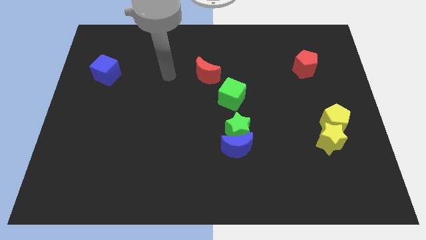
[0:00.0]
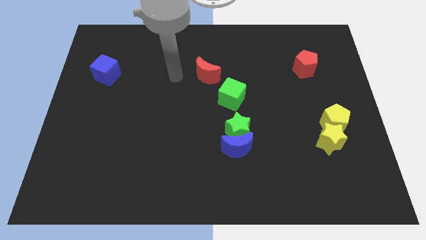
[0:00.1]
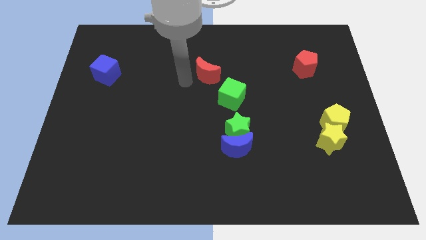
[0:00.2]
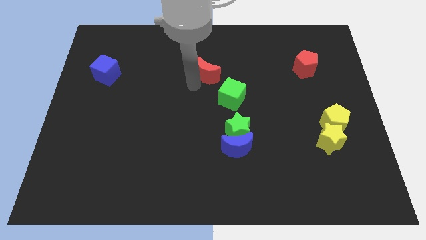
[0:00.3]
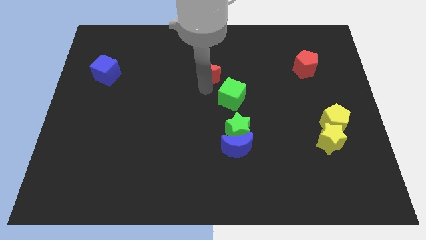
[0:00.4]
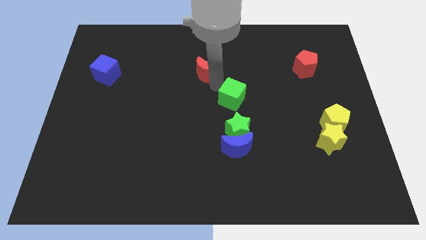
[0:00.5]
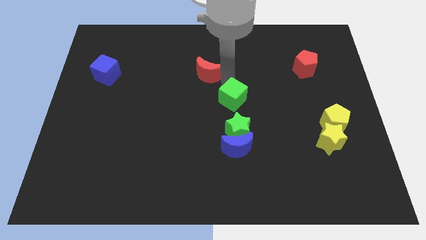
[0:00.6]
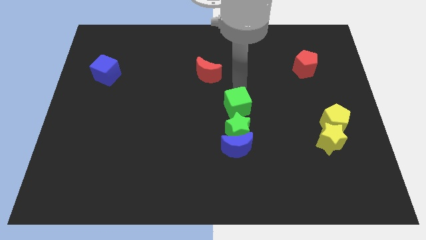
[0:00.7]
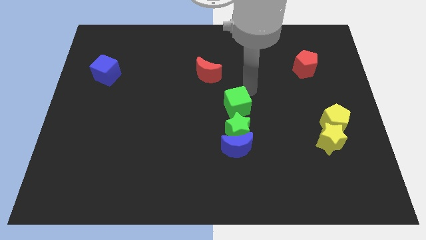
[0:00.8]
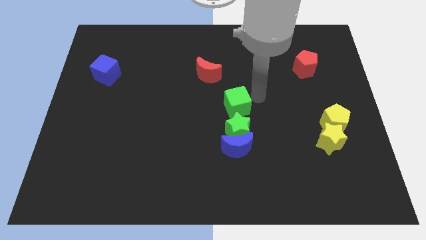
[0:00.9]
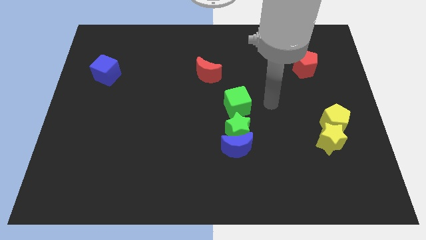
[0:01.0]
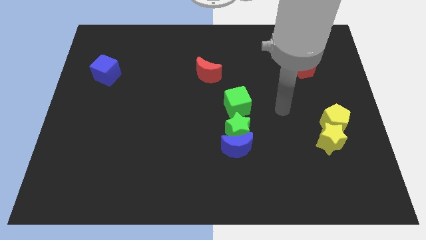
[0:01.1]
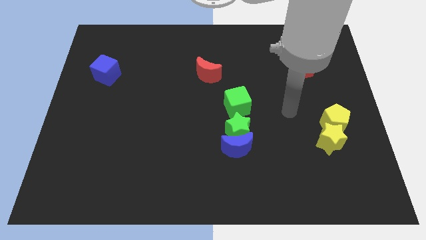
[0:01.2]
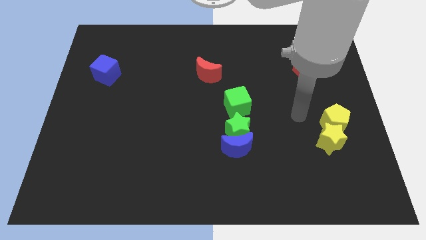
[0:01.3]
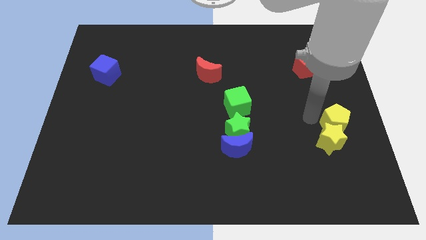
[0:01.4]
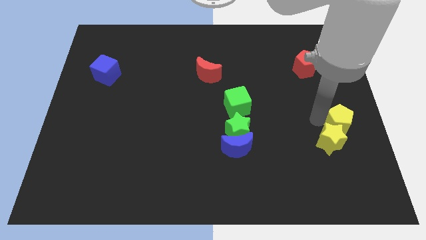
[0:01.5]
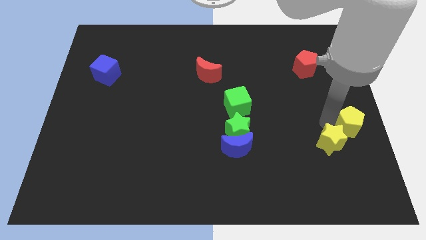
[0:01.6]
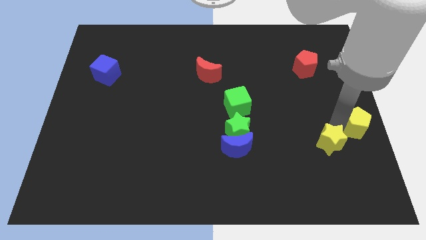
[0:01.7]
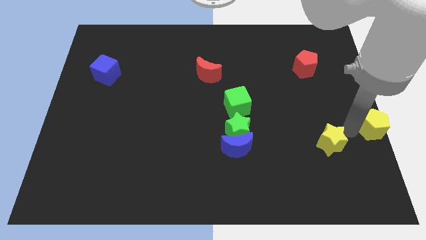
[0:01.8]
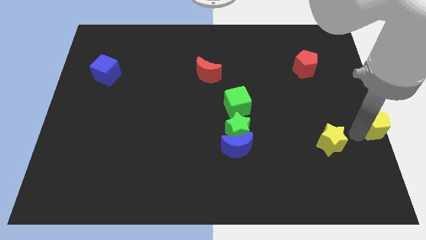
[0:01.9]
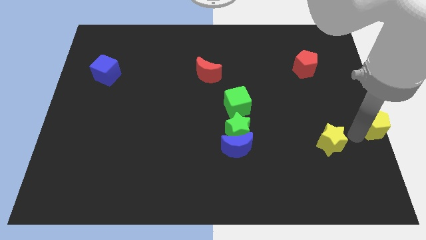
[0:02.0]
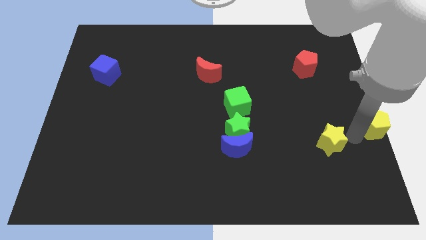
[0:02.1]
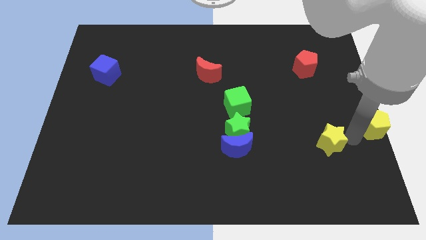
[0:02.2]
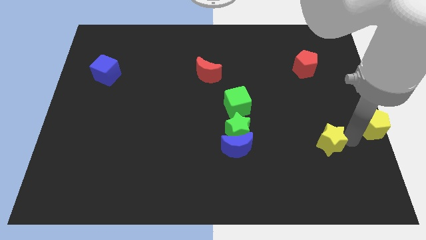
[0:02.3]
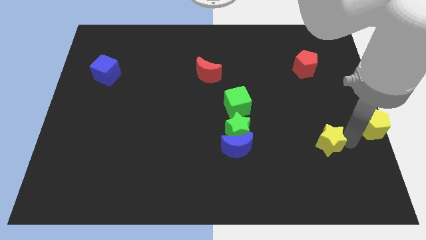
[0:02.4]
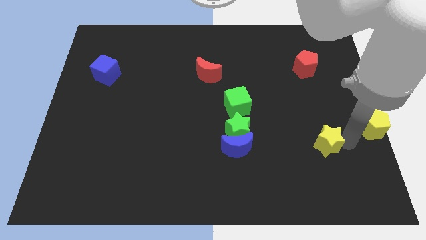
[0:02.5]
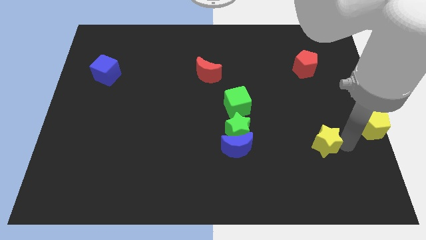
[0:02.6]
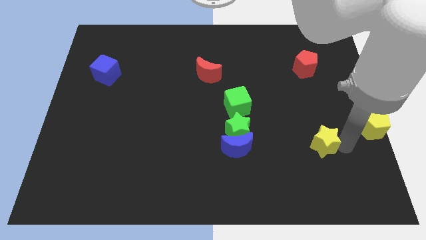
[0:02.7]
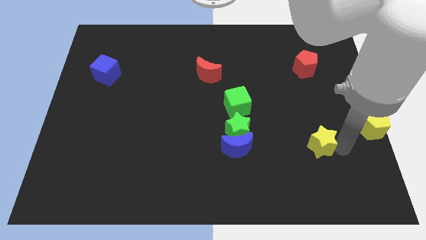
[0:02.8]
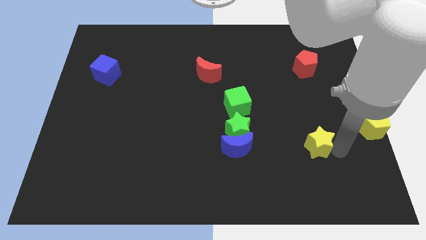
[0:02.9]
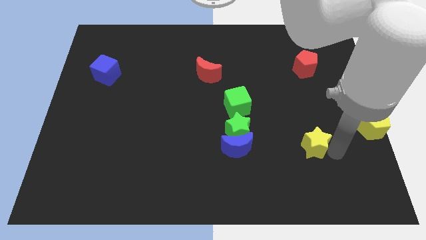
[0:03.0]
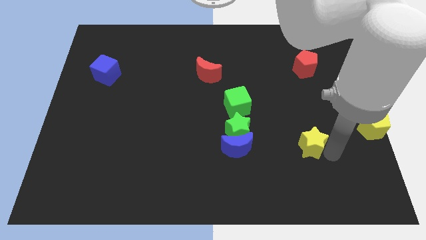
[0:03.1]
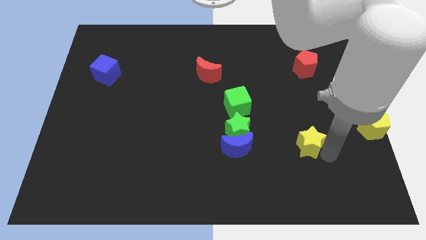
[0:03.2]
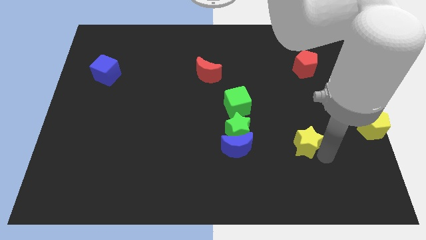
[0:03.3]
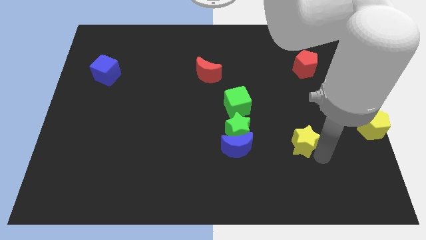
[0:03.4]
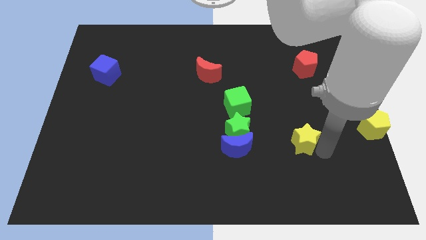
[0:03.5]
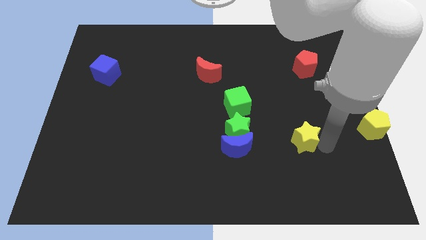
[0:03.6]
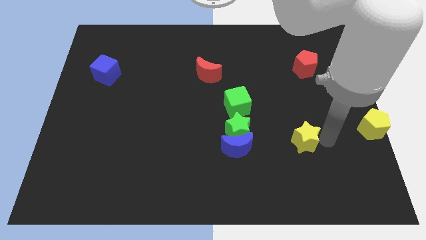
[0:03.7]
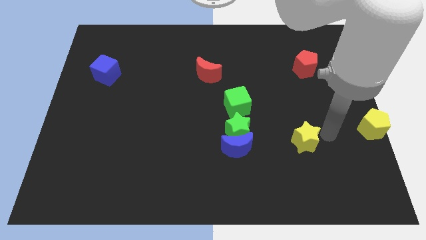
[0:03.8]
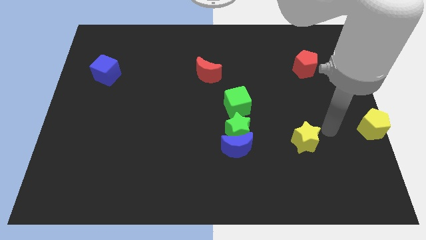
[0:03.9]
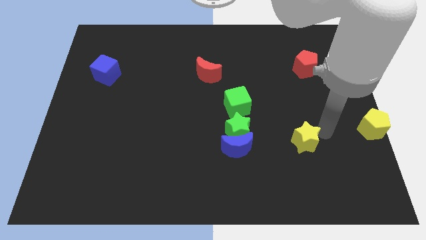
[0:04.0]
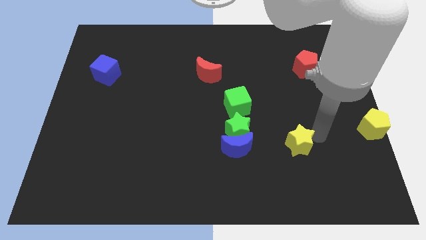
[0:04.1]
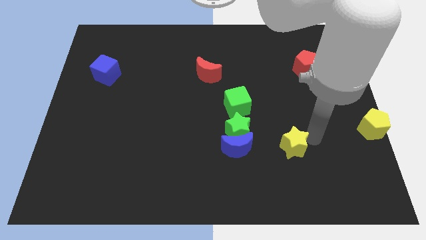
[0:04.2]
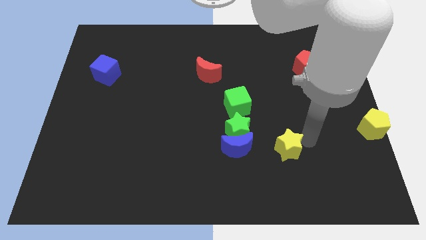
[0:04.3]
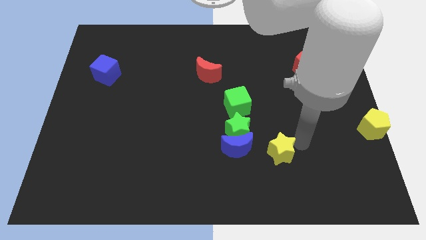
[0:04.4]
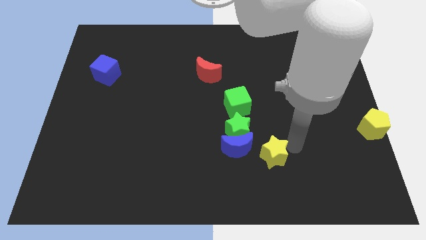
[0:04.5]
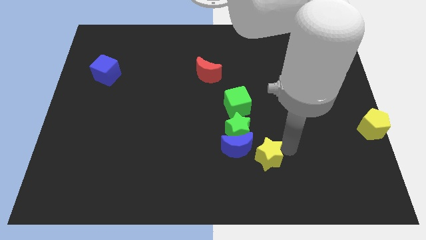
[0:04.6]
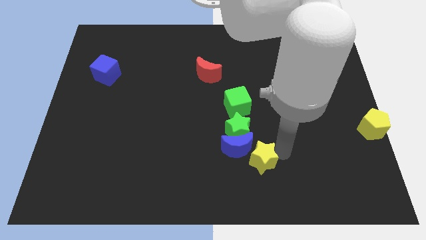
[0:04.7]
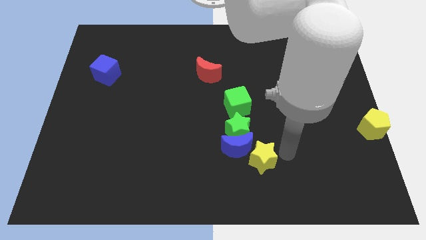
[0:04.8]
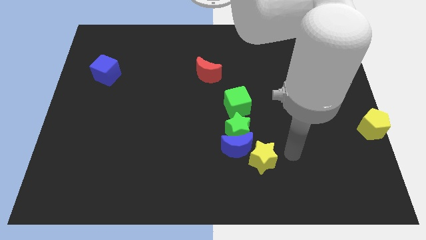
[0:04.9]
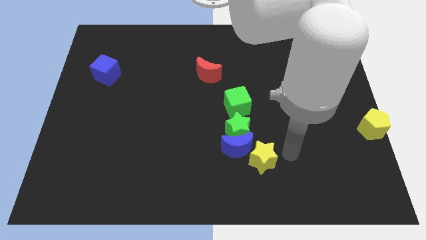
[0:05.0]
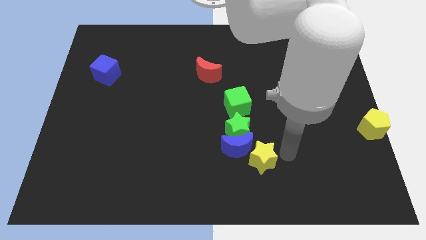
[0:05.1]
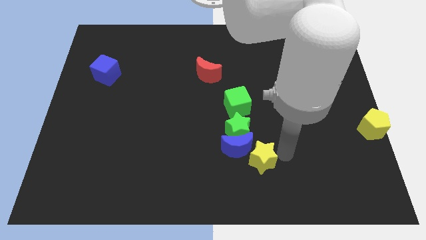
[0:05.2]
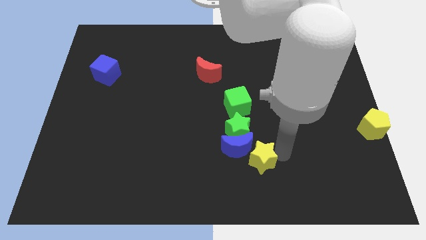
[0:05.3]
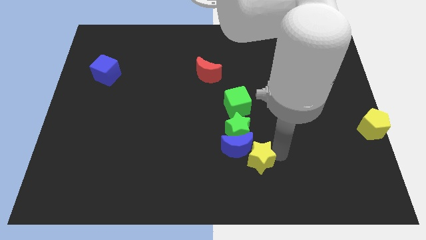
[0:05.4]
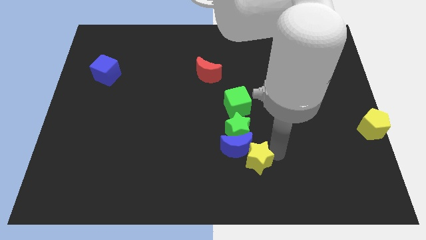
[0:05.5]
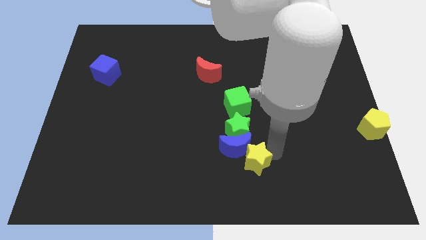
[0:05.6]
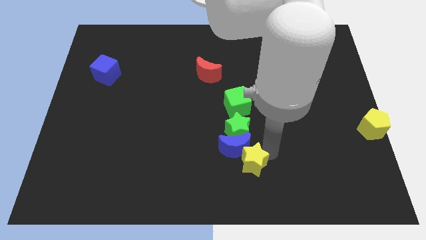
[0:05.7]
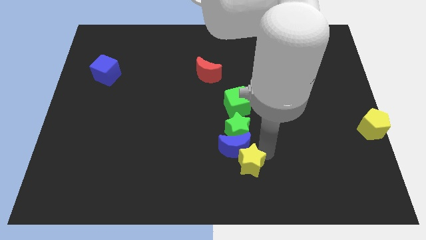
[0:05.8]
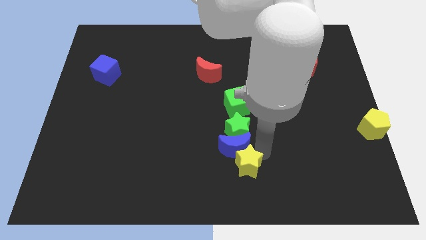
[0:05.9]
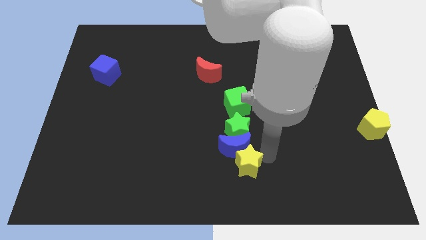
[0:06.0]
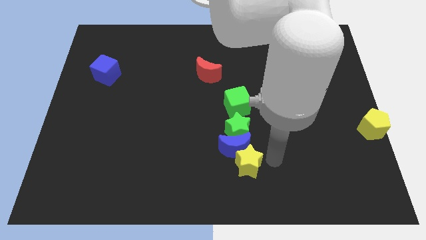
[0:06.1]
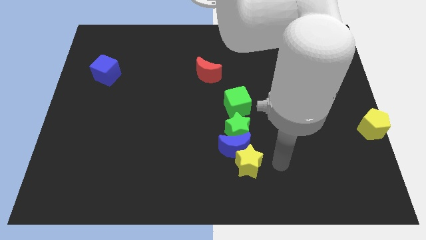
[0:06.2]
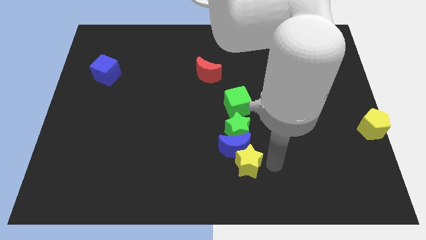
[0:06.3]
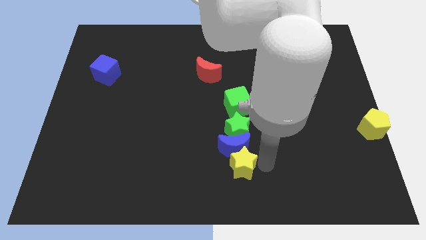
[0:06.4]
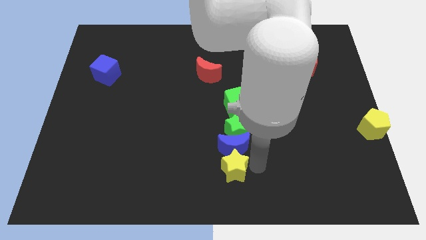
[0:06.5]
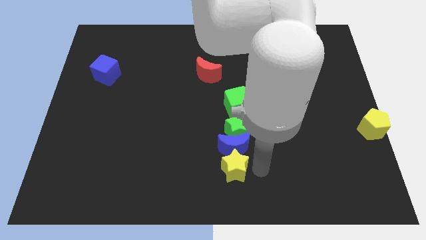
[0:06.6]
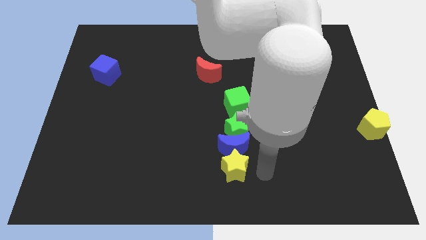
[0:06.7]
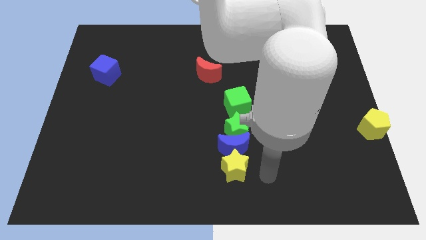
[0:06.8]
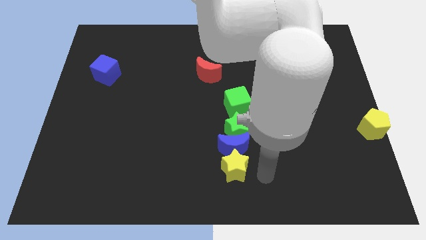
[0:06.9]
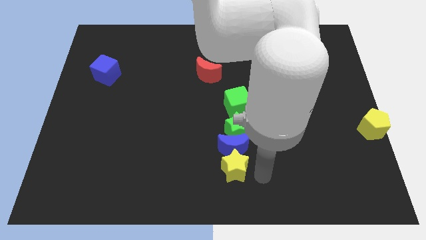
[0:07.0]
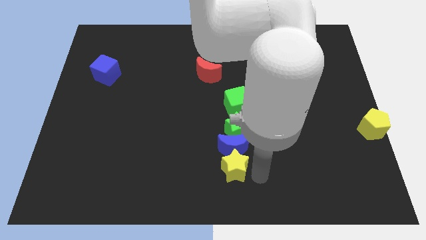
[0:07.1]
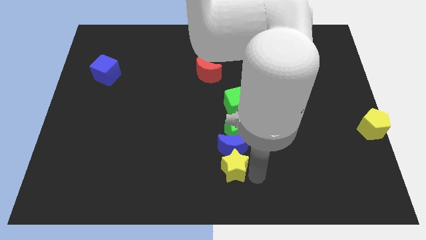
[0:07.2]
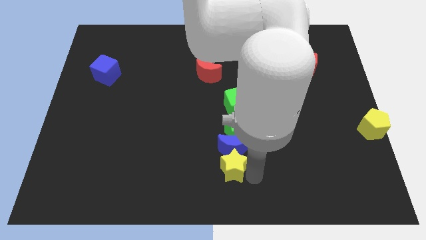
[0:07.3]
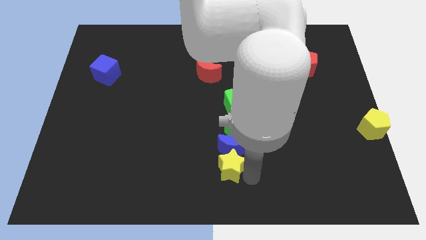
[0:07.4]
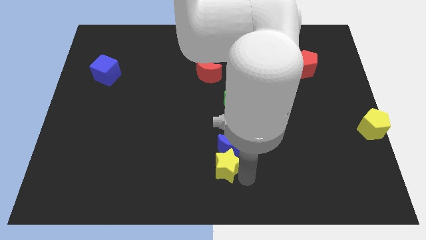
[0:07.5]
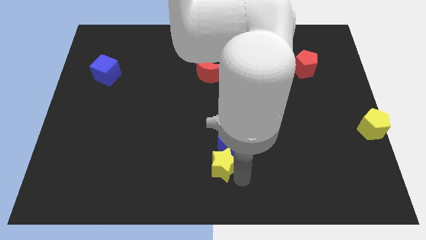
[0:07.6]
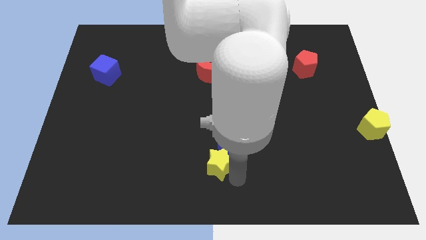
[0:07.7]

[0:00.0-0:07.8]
push the yellow star just left of the blue moon
